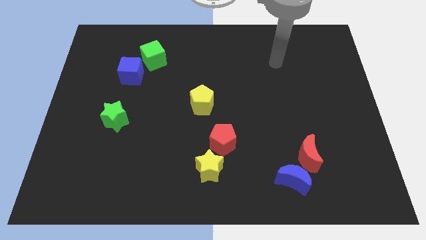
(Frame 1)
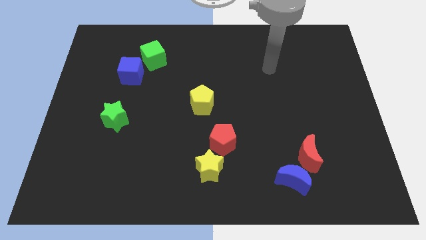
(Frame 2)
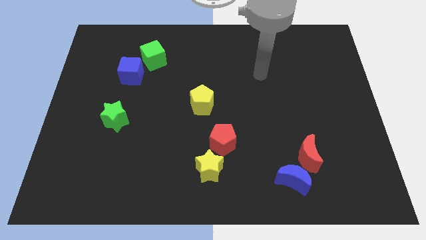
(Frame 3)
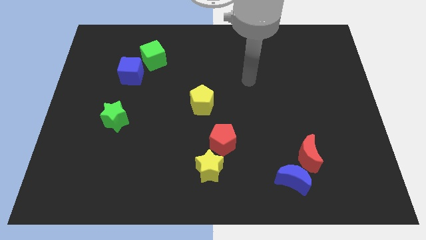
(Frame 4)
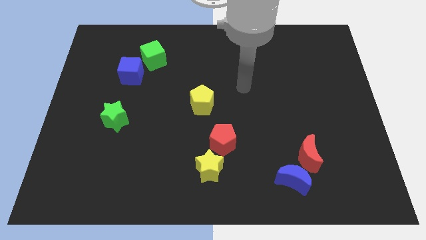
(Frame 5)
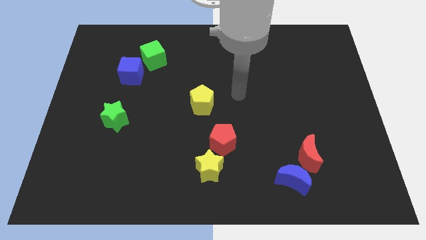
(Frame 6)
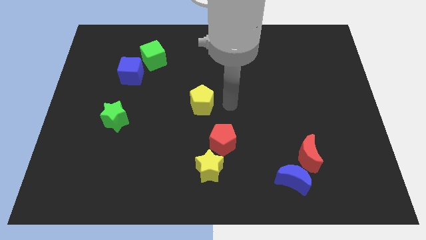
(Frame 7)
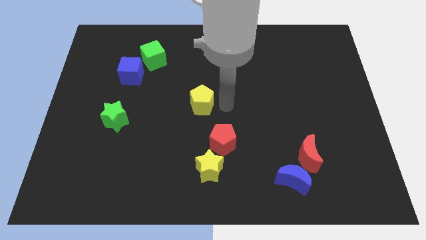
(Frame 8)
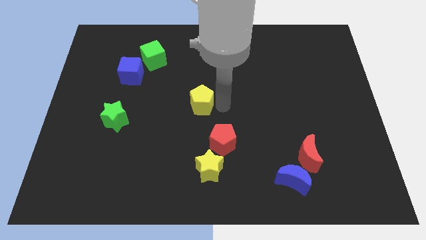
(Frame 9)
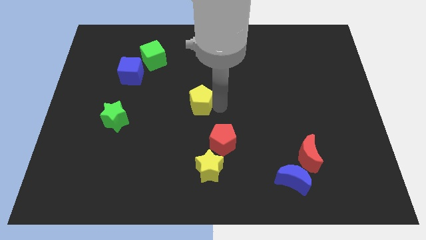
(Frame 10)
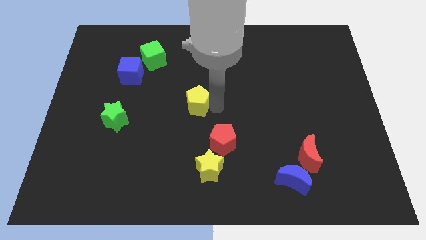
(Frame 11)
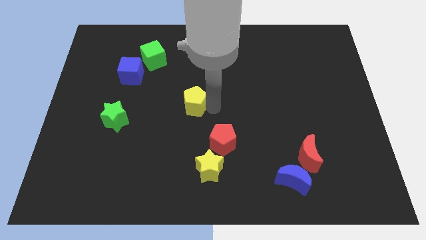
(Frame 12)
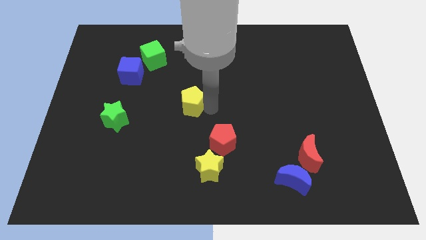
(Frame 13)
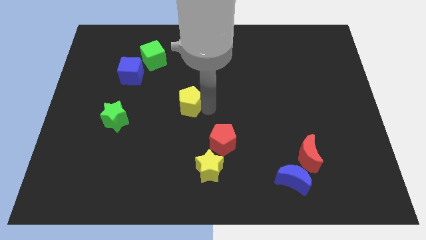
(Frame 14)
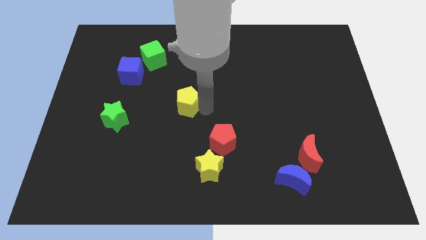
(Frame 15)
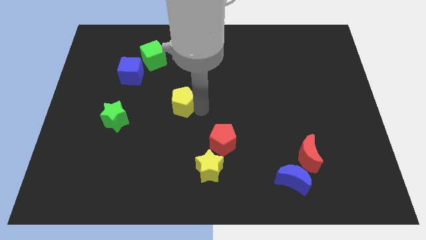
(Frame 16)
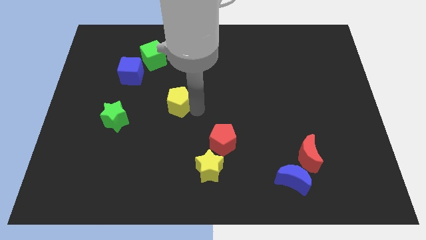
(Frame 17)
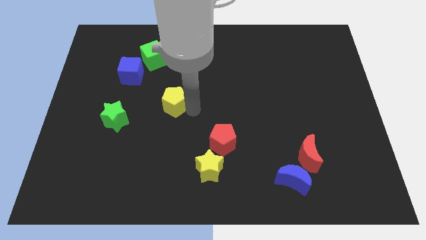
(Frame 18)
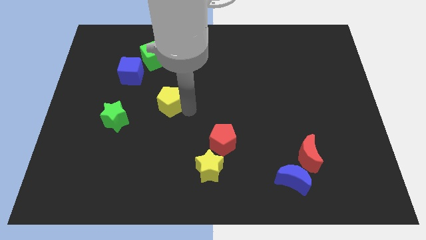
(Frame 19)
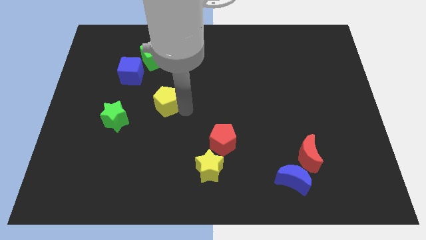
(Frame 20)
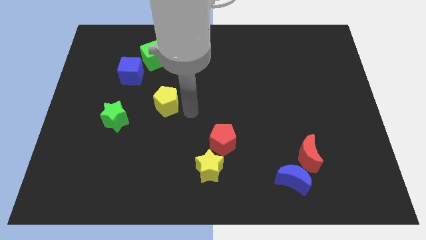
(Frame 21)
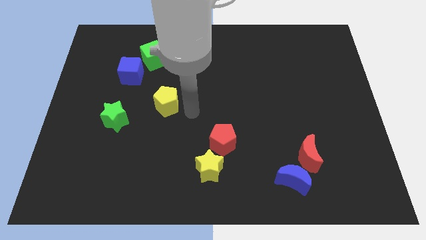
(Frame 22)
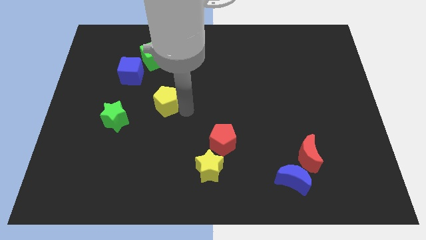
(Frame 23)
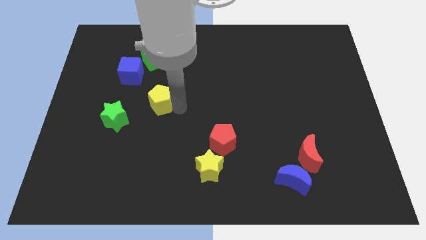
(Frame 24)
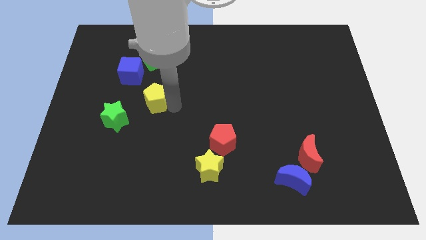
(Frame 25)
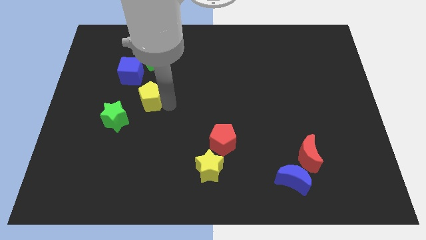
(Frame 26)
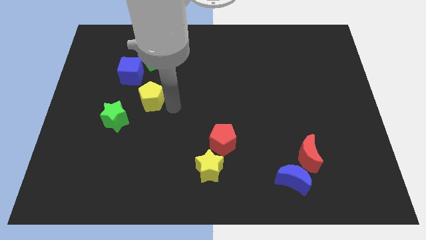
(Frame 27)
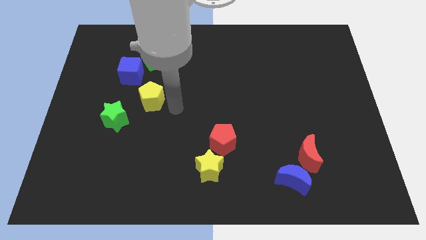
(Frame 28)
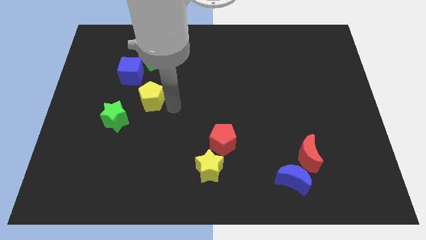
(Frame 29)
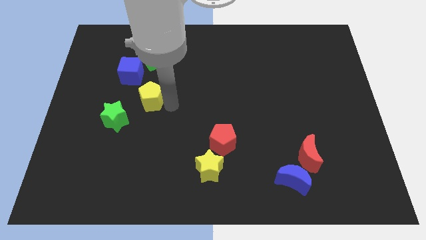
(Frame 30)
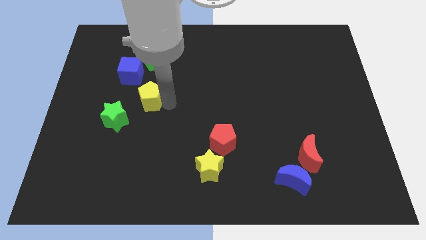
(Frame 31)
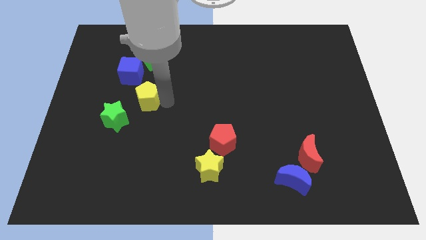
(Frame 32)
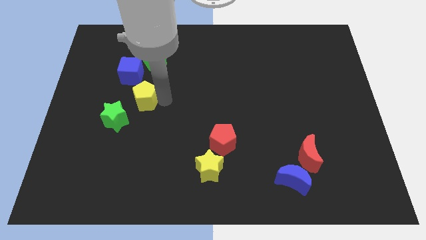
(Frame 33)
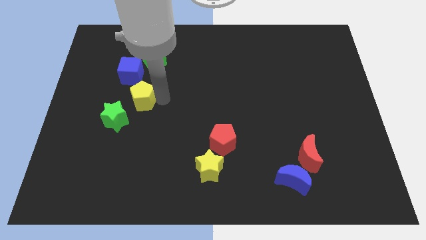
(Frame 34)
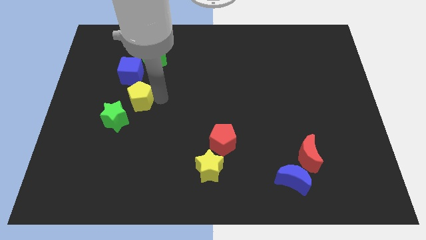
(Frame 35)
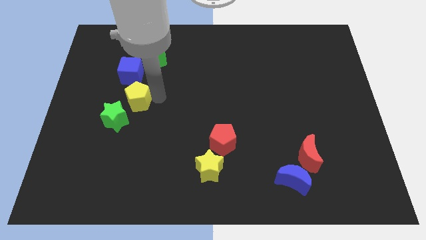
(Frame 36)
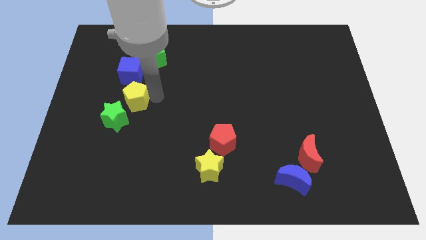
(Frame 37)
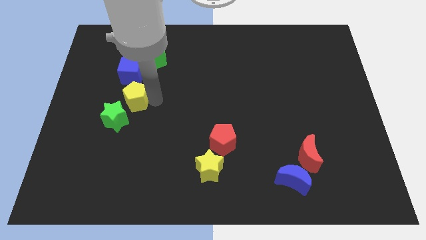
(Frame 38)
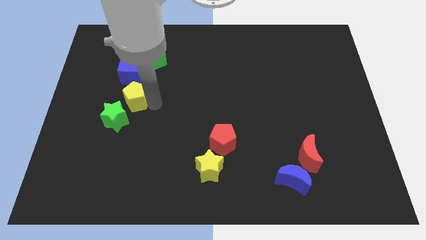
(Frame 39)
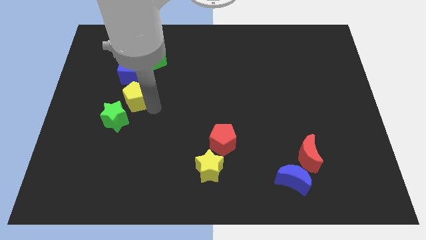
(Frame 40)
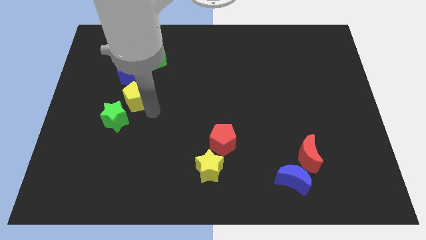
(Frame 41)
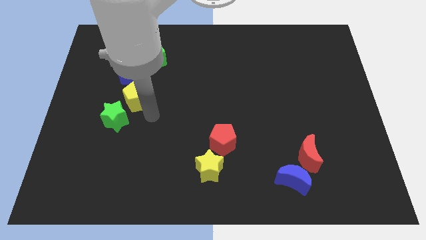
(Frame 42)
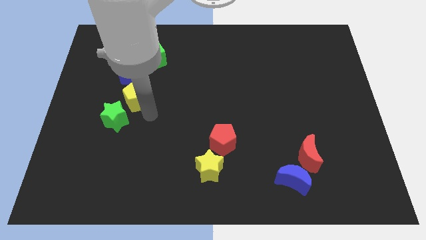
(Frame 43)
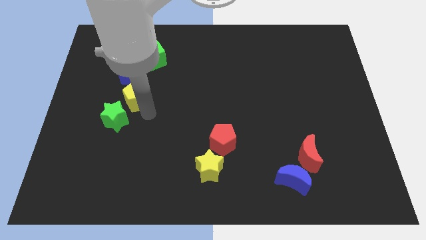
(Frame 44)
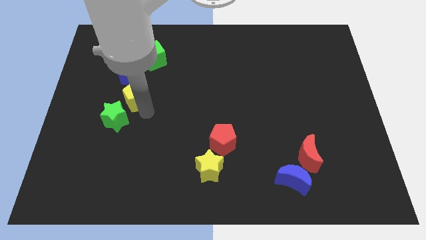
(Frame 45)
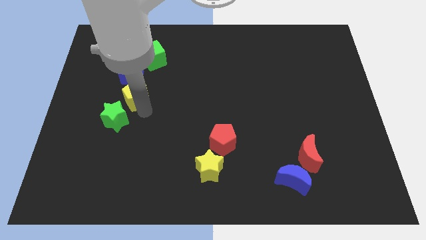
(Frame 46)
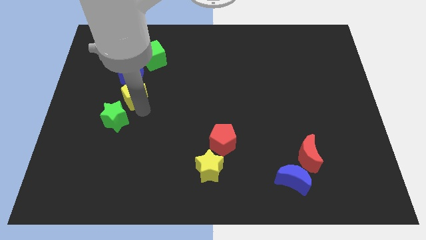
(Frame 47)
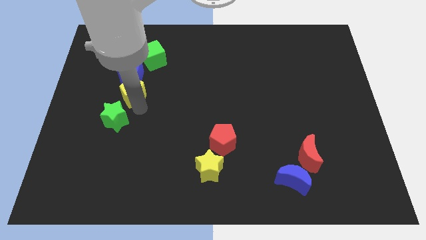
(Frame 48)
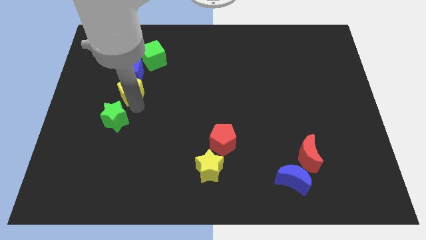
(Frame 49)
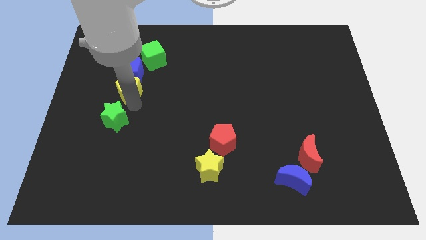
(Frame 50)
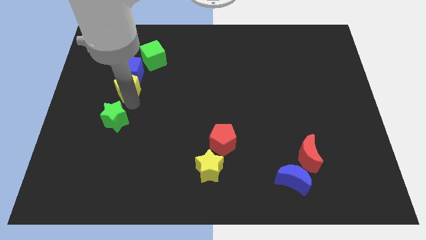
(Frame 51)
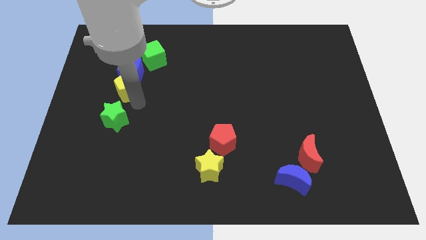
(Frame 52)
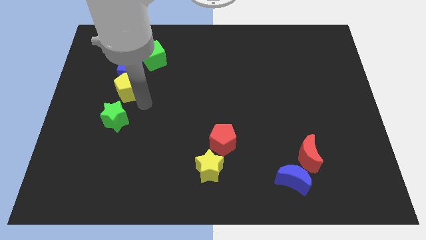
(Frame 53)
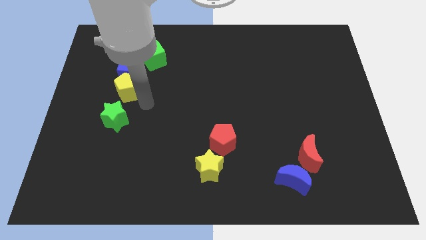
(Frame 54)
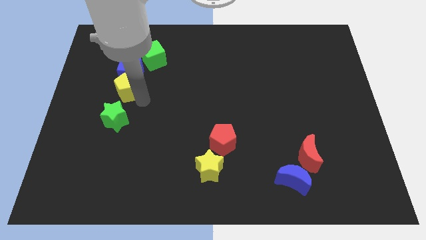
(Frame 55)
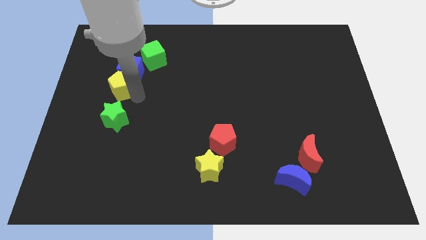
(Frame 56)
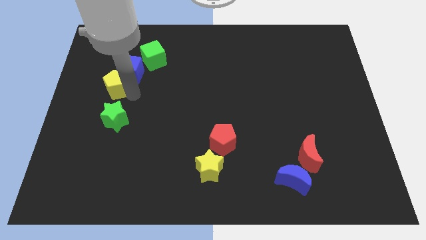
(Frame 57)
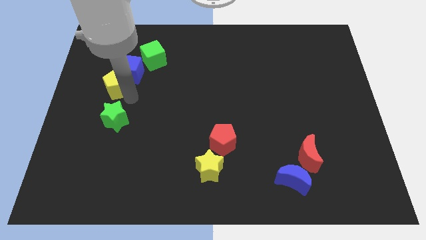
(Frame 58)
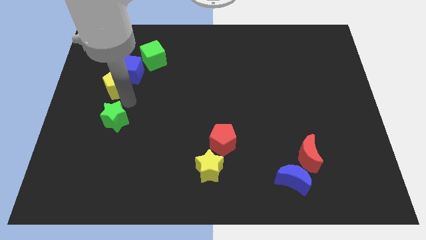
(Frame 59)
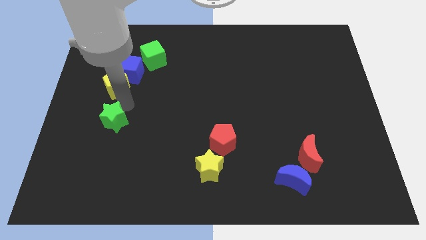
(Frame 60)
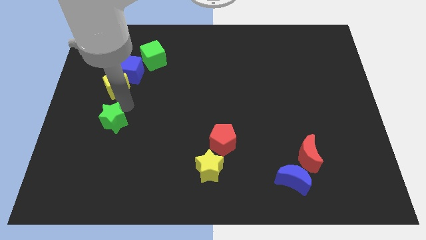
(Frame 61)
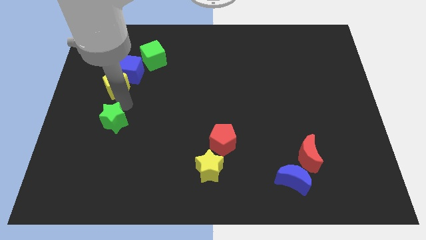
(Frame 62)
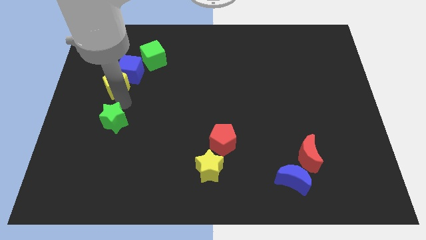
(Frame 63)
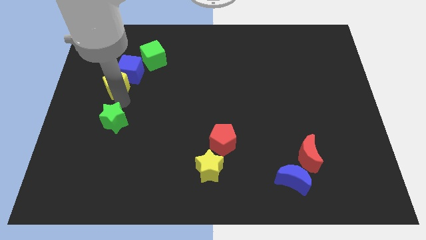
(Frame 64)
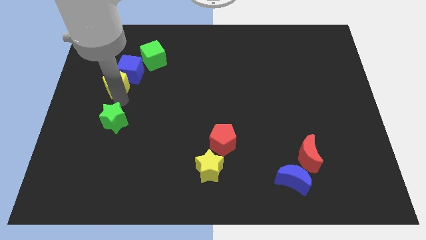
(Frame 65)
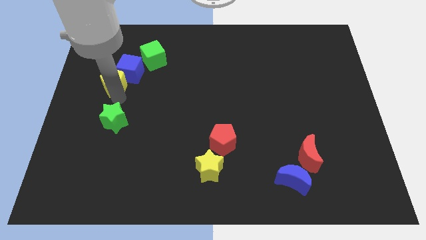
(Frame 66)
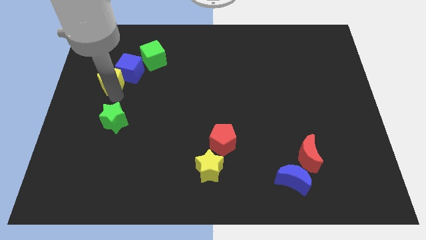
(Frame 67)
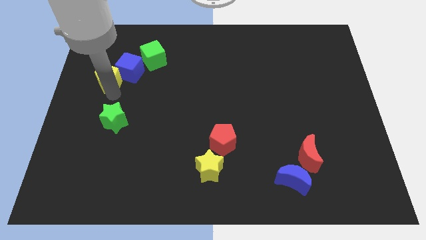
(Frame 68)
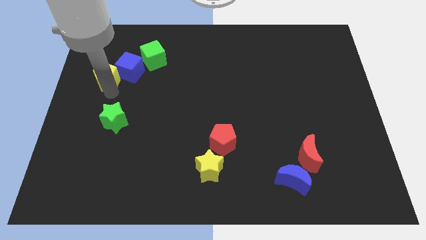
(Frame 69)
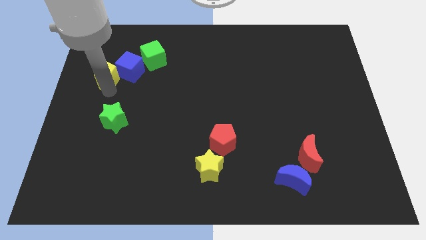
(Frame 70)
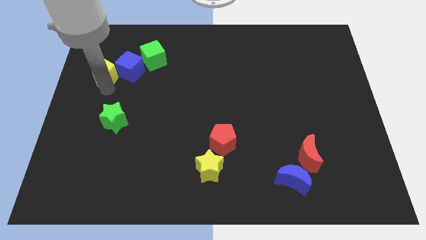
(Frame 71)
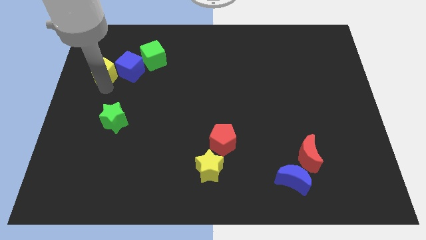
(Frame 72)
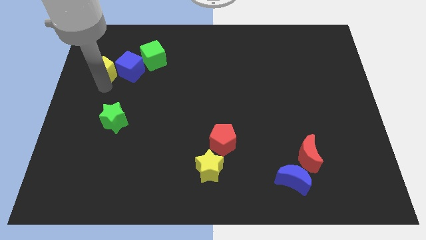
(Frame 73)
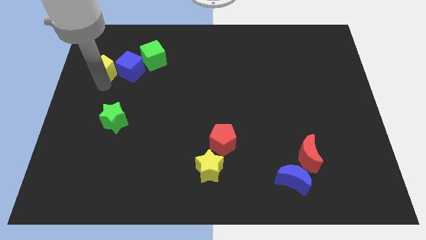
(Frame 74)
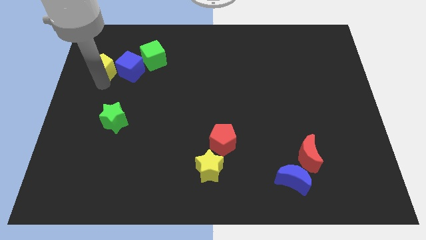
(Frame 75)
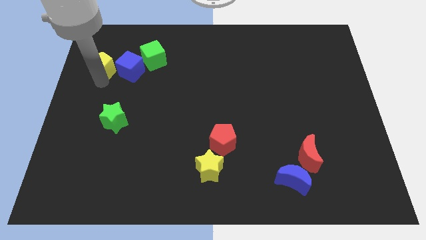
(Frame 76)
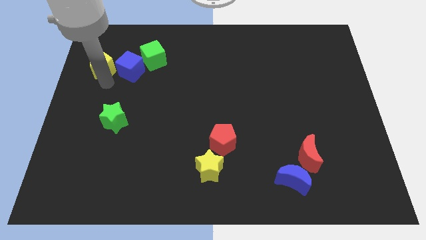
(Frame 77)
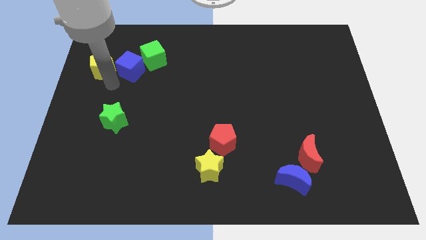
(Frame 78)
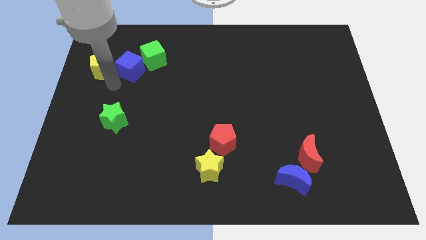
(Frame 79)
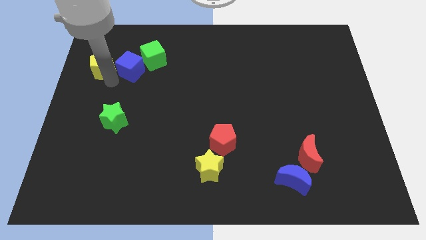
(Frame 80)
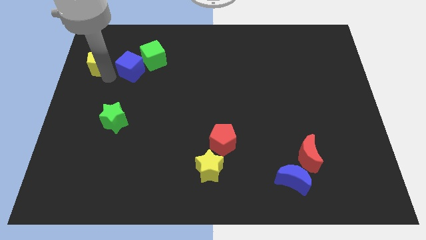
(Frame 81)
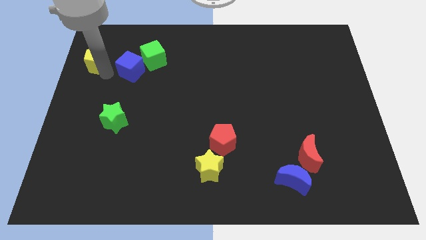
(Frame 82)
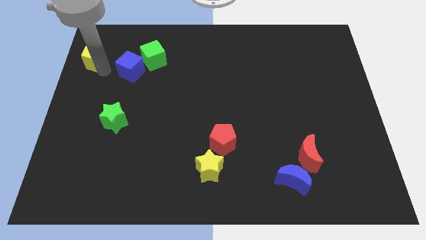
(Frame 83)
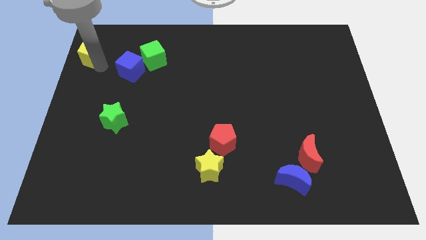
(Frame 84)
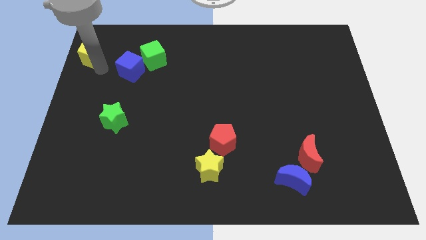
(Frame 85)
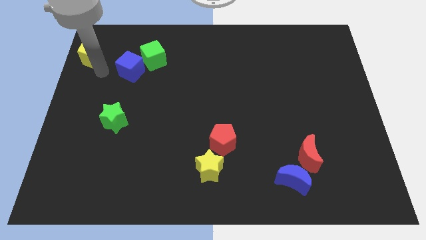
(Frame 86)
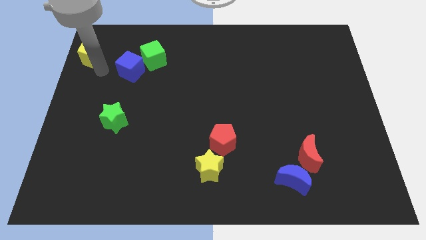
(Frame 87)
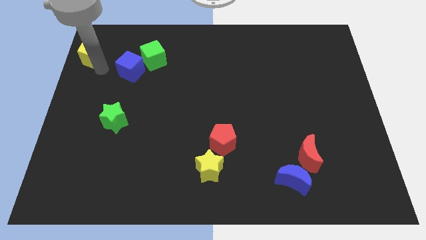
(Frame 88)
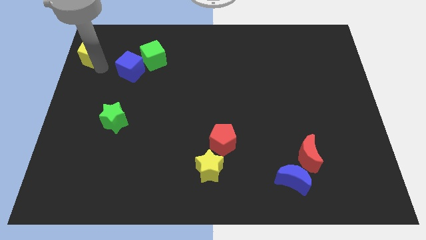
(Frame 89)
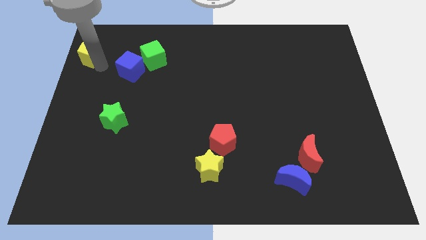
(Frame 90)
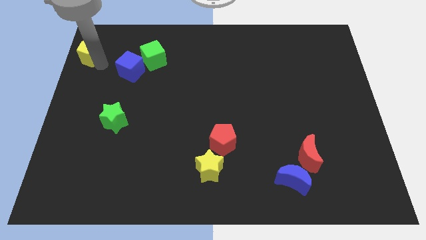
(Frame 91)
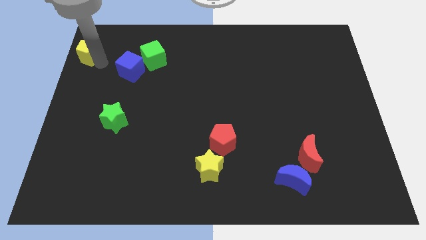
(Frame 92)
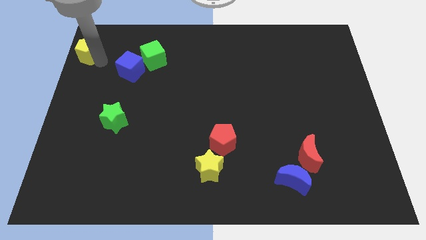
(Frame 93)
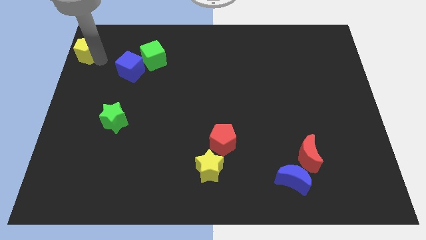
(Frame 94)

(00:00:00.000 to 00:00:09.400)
push the yellow pentagon to the upper left corner
